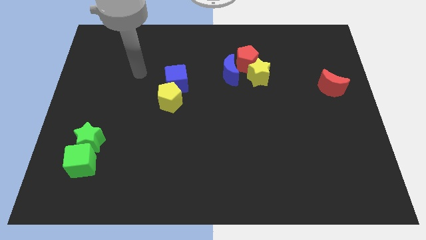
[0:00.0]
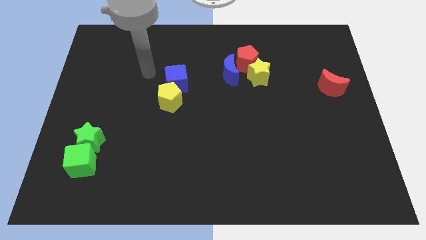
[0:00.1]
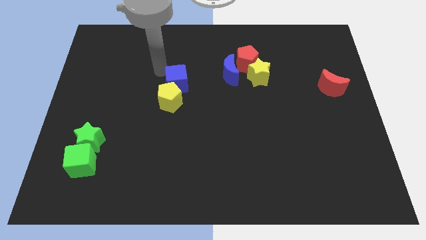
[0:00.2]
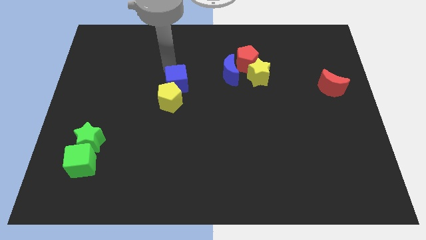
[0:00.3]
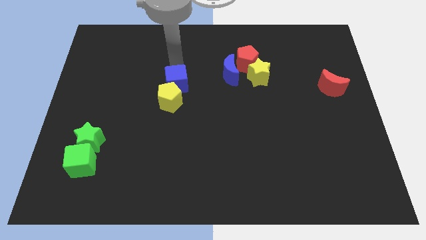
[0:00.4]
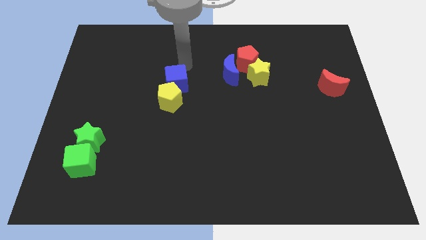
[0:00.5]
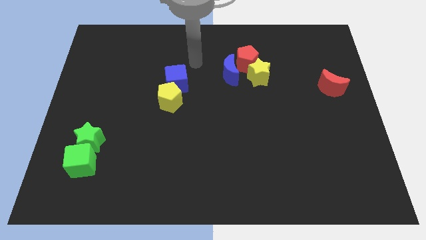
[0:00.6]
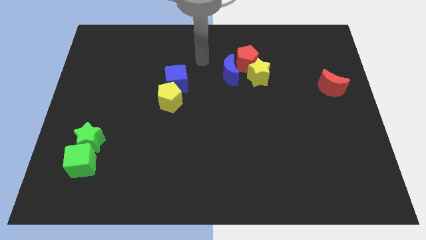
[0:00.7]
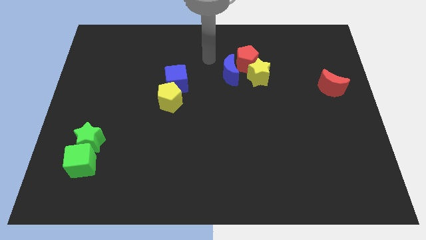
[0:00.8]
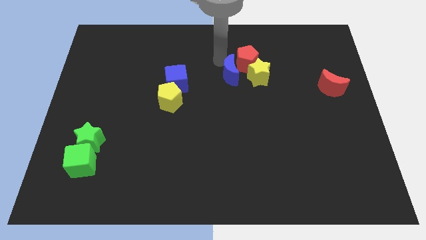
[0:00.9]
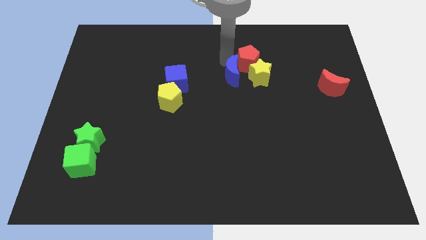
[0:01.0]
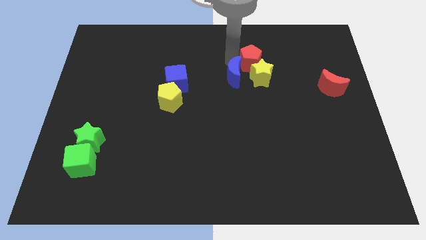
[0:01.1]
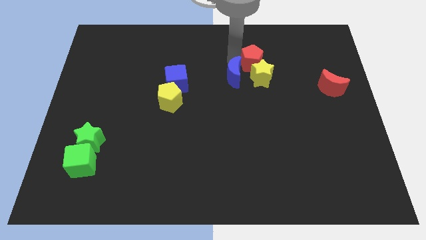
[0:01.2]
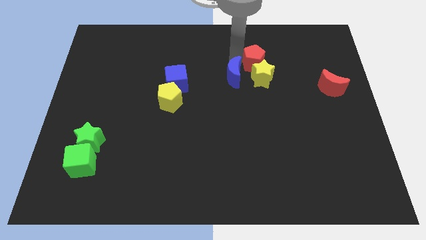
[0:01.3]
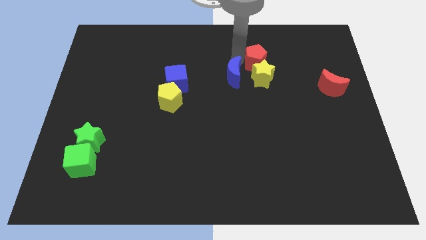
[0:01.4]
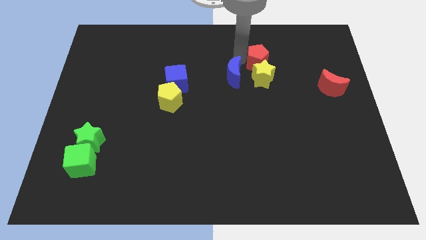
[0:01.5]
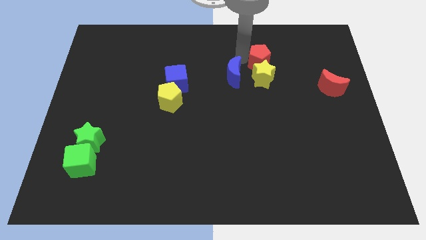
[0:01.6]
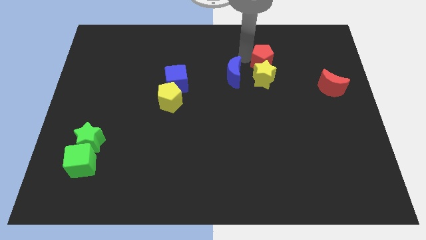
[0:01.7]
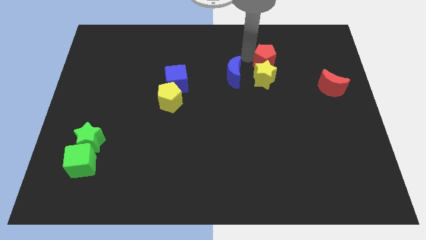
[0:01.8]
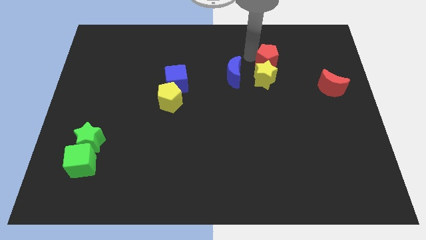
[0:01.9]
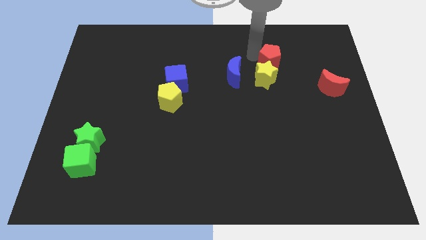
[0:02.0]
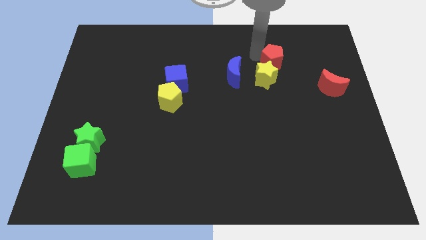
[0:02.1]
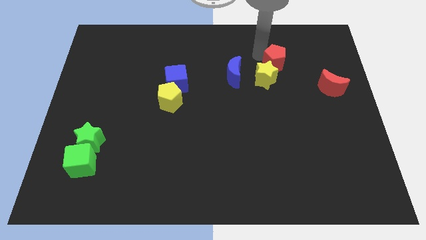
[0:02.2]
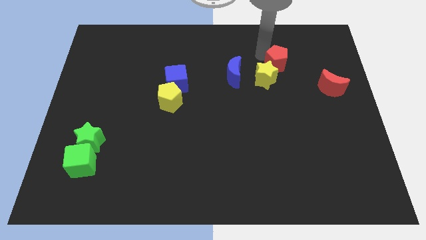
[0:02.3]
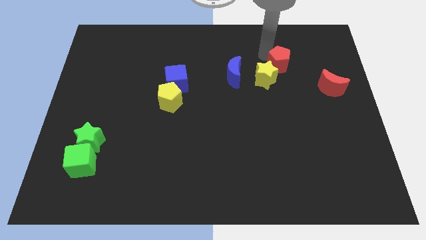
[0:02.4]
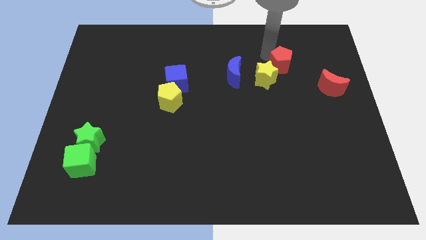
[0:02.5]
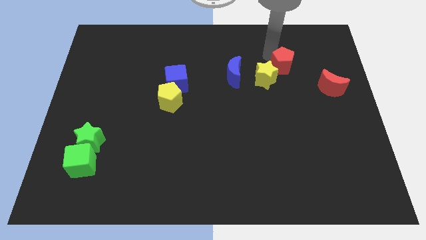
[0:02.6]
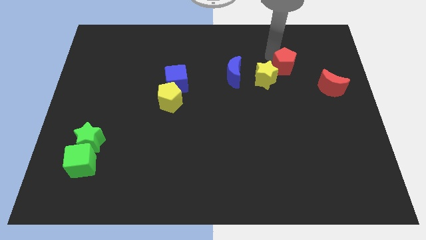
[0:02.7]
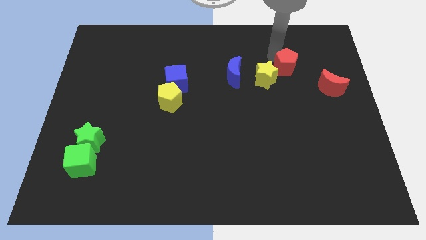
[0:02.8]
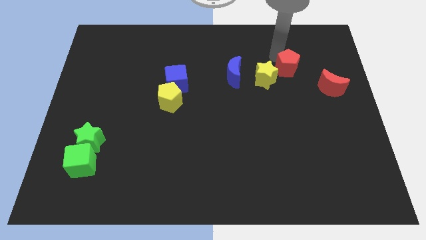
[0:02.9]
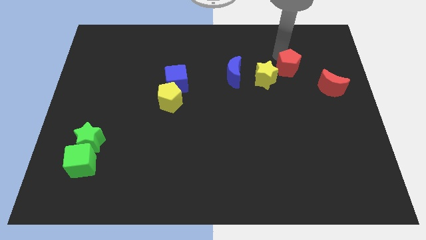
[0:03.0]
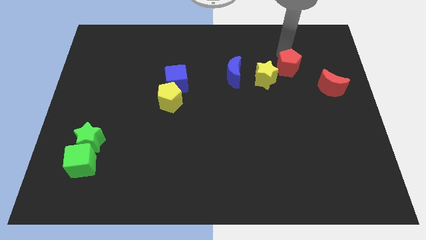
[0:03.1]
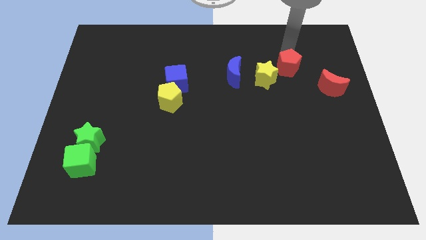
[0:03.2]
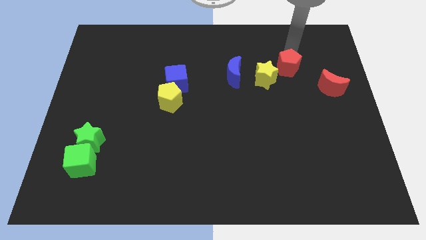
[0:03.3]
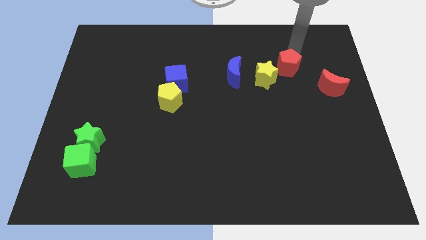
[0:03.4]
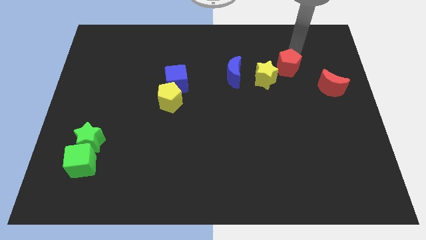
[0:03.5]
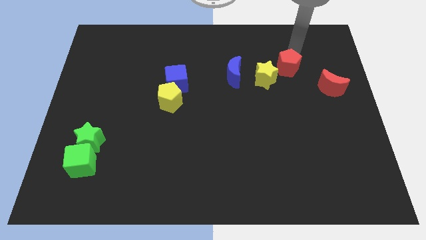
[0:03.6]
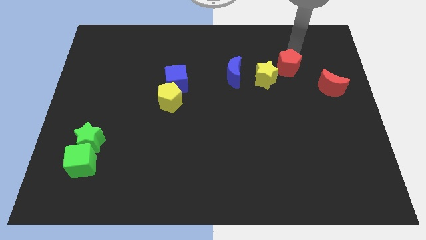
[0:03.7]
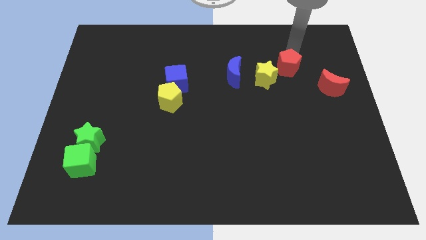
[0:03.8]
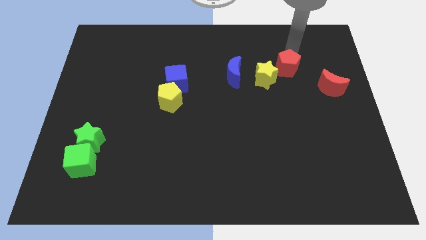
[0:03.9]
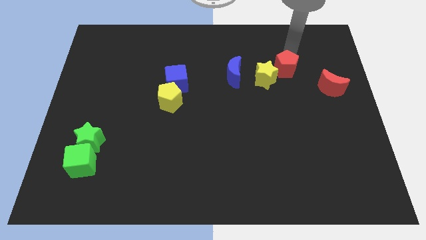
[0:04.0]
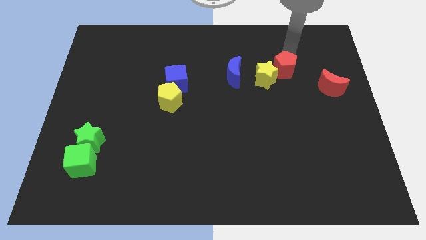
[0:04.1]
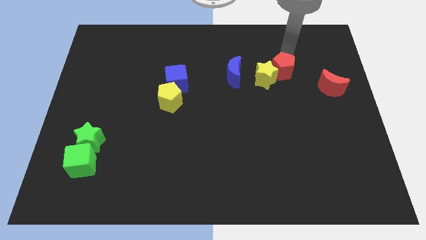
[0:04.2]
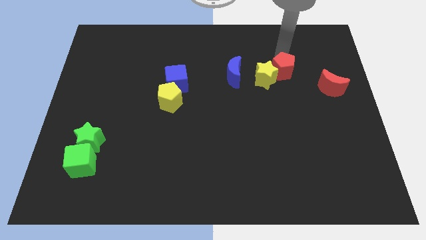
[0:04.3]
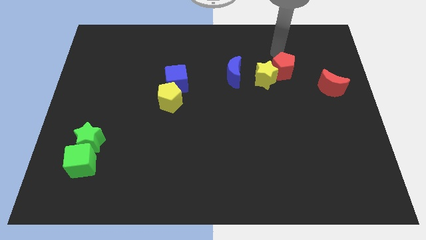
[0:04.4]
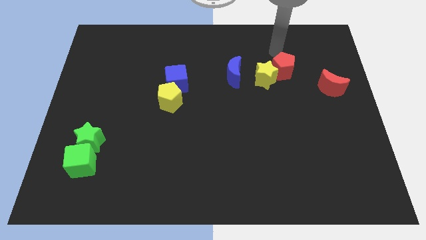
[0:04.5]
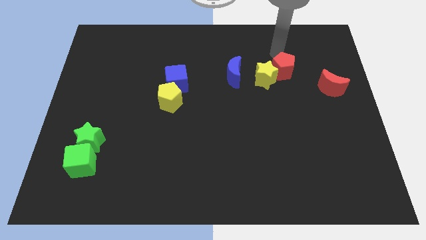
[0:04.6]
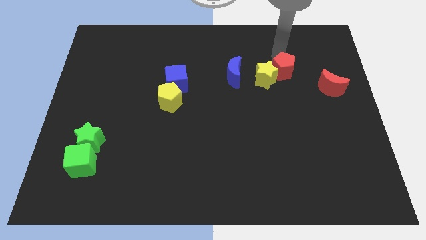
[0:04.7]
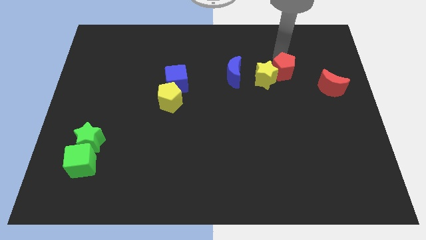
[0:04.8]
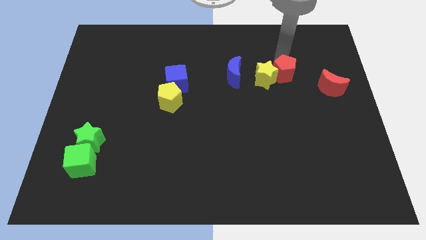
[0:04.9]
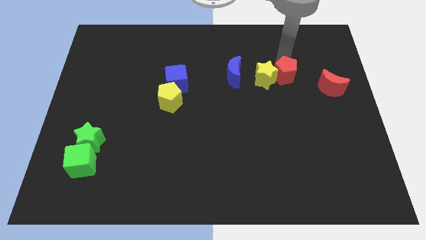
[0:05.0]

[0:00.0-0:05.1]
push the red pentagon left of the red moon

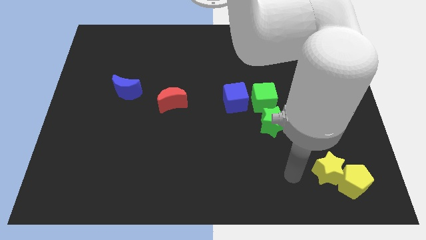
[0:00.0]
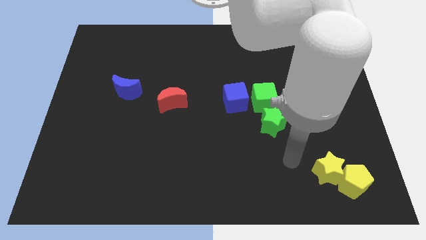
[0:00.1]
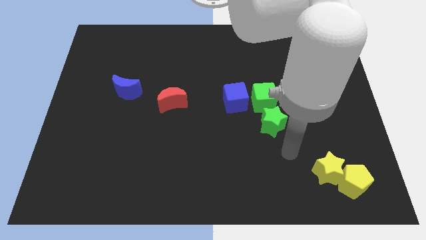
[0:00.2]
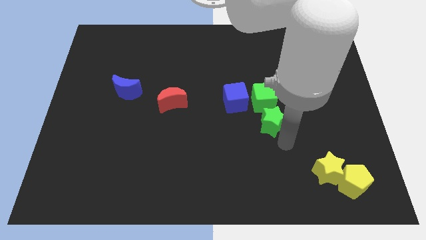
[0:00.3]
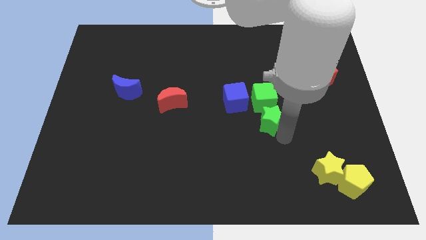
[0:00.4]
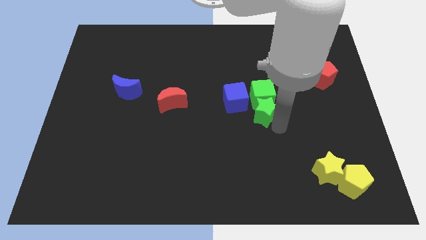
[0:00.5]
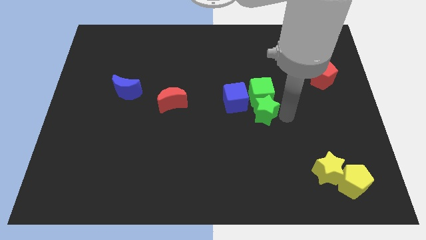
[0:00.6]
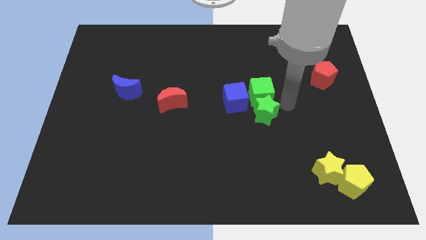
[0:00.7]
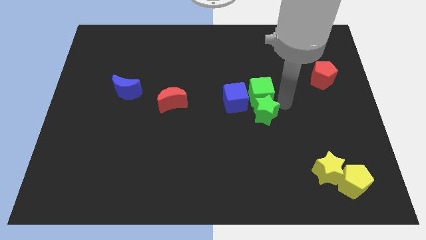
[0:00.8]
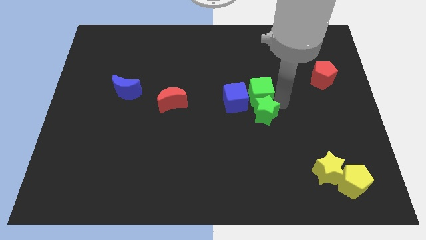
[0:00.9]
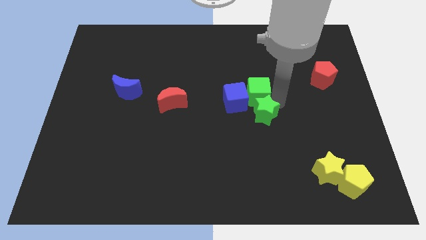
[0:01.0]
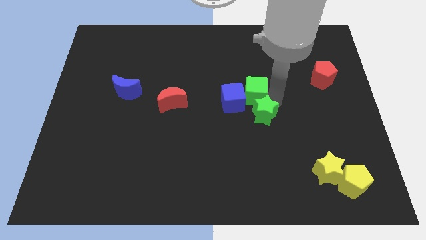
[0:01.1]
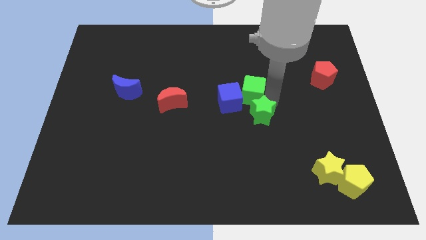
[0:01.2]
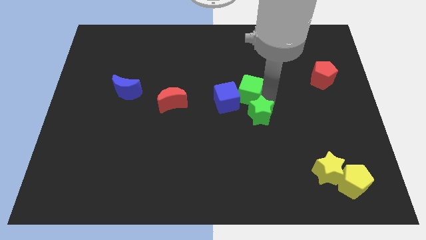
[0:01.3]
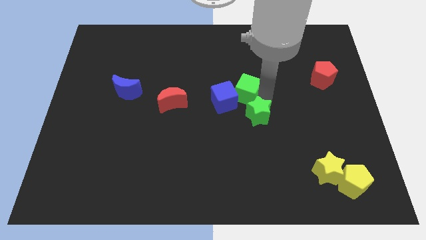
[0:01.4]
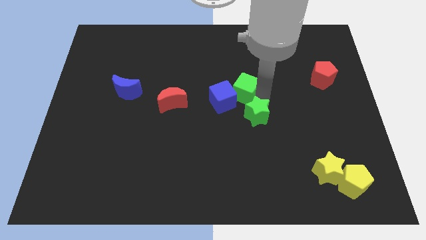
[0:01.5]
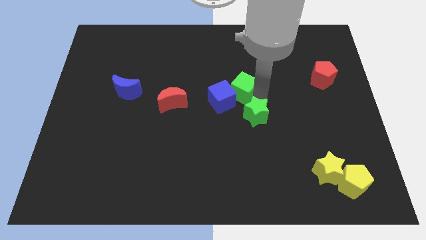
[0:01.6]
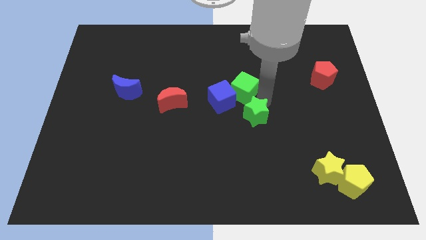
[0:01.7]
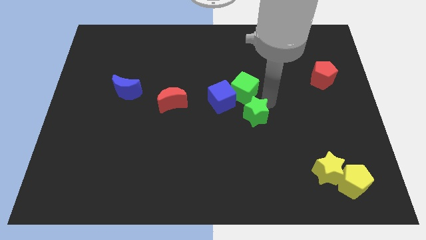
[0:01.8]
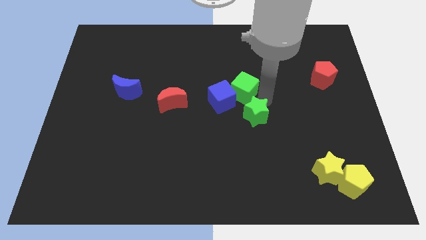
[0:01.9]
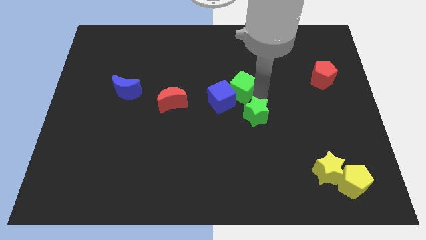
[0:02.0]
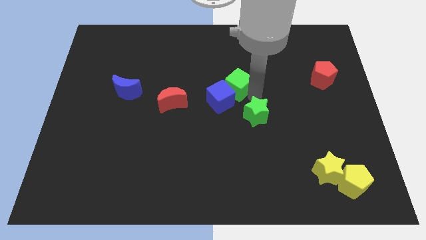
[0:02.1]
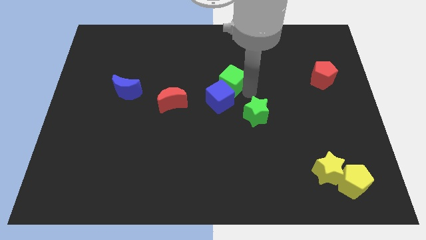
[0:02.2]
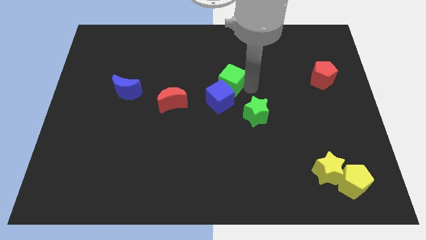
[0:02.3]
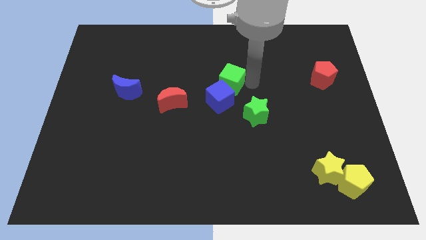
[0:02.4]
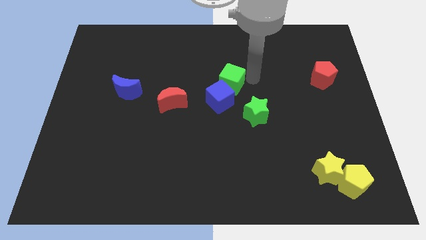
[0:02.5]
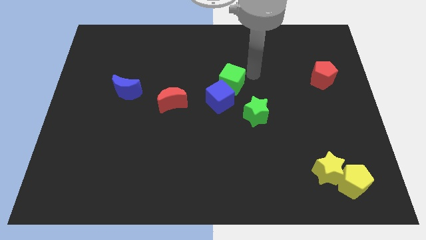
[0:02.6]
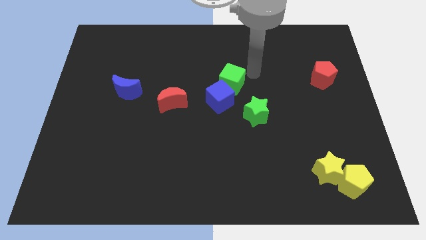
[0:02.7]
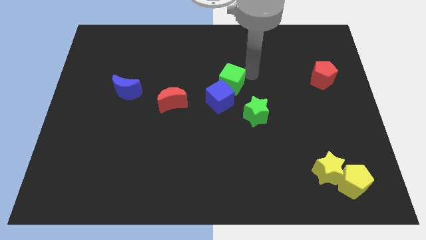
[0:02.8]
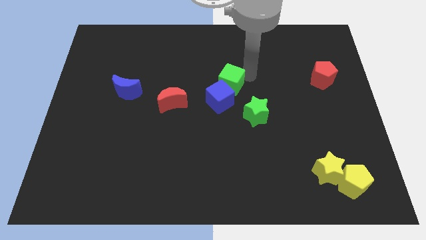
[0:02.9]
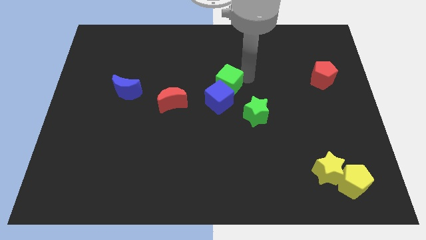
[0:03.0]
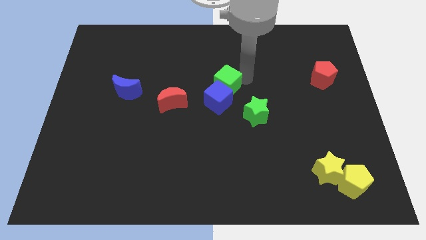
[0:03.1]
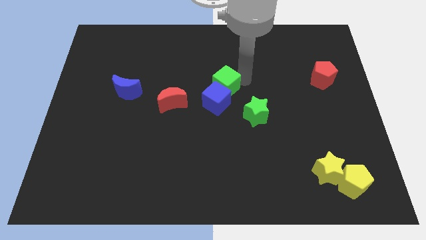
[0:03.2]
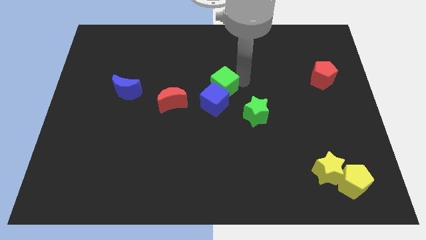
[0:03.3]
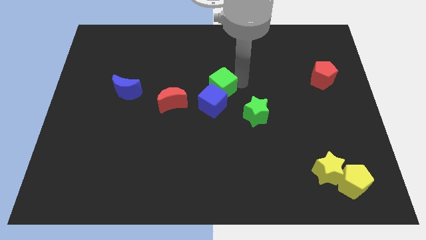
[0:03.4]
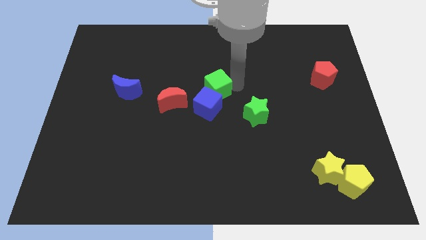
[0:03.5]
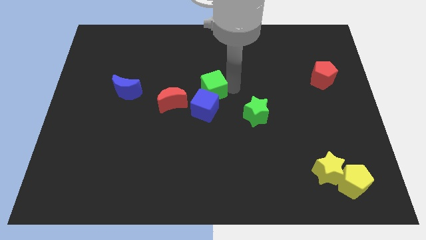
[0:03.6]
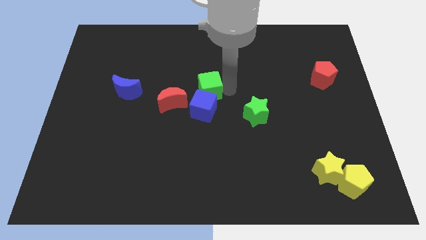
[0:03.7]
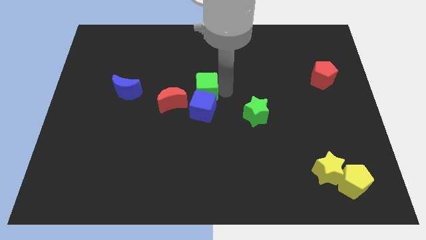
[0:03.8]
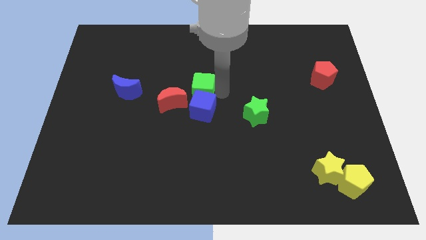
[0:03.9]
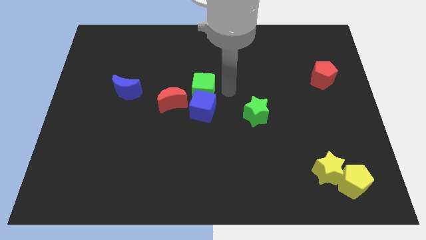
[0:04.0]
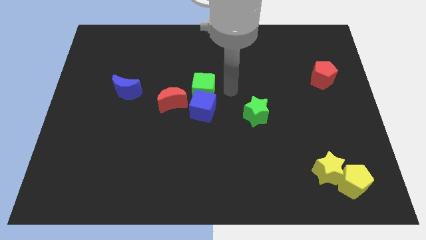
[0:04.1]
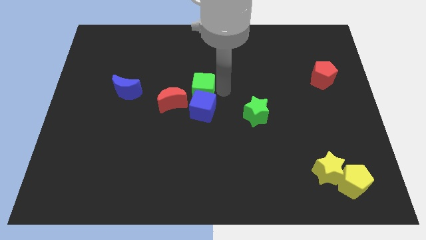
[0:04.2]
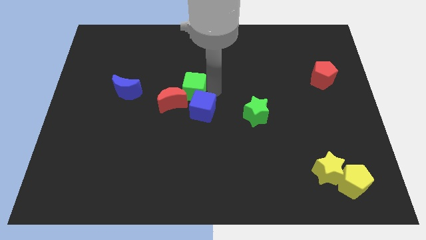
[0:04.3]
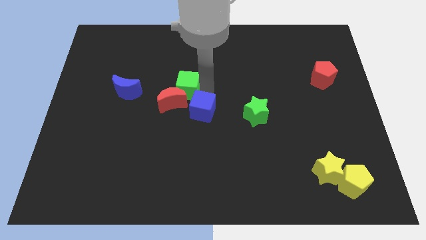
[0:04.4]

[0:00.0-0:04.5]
move the green cube to the right of the blue moon
